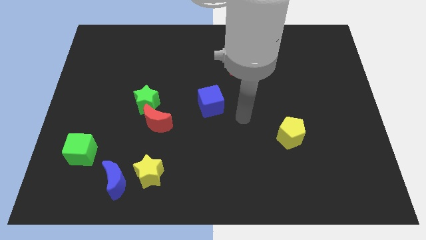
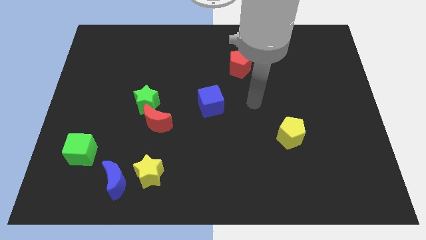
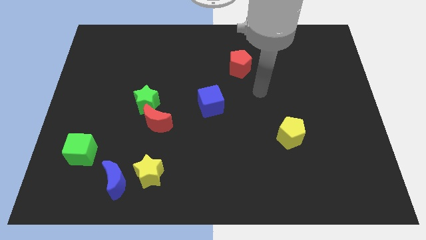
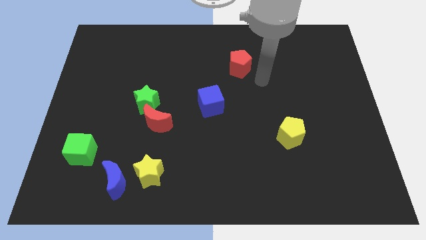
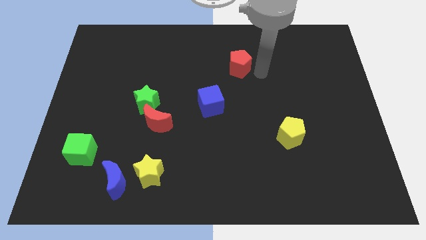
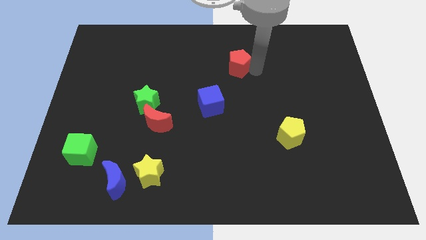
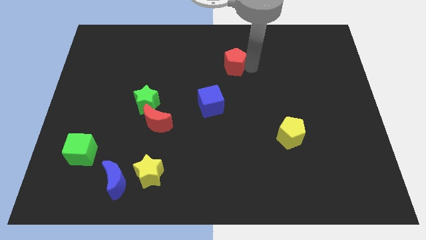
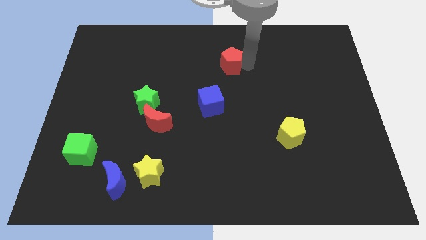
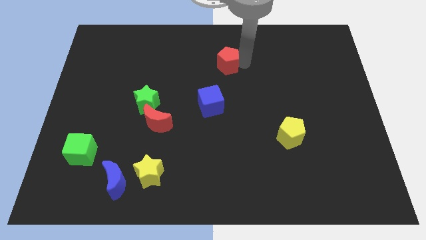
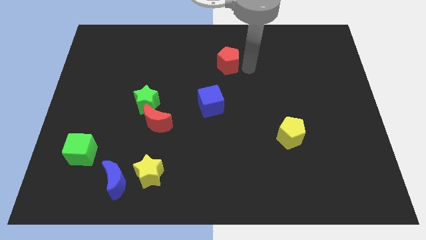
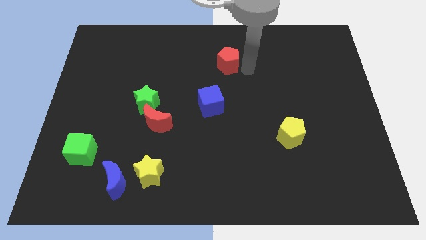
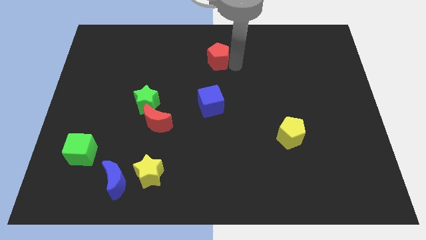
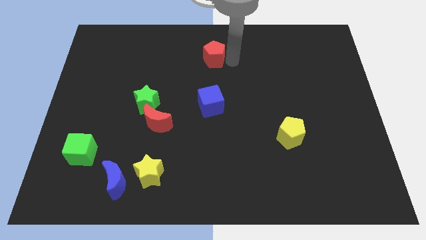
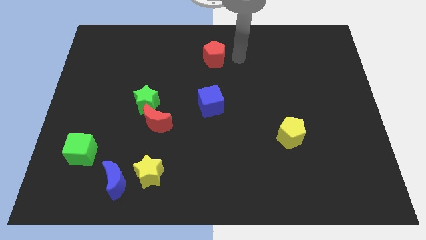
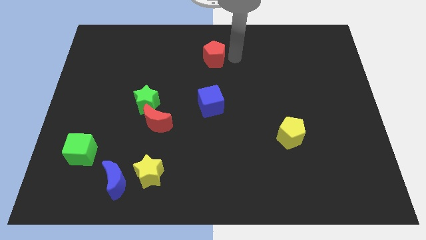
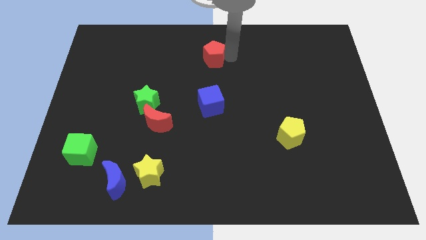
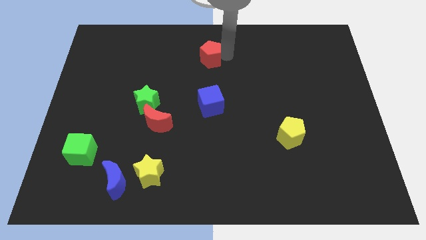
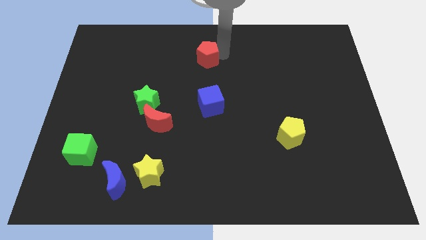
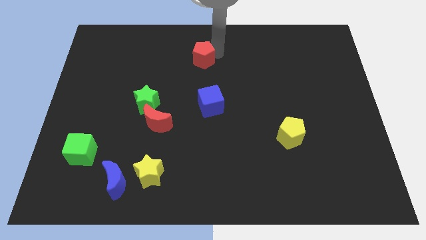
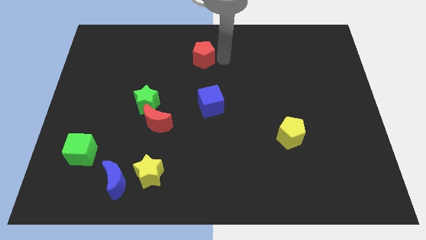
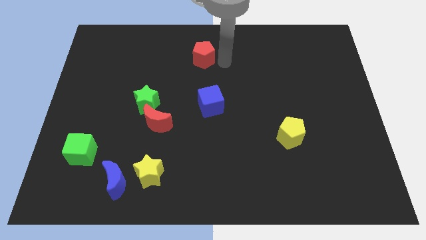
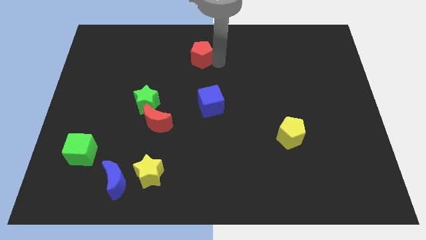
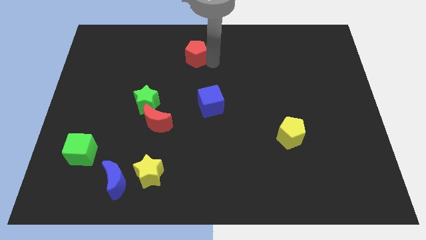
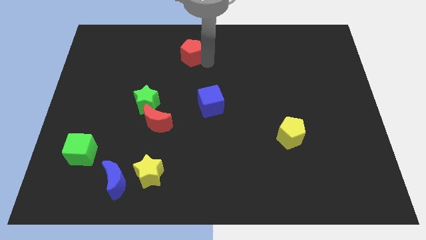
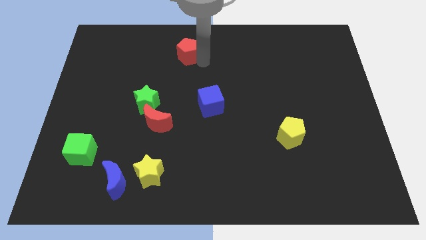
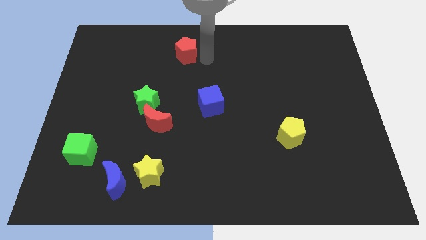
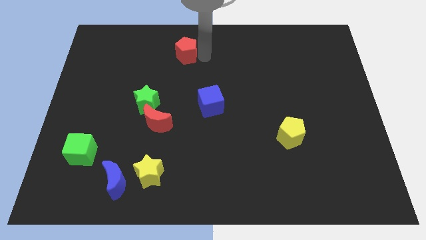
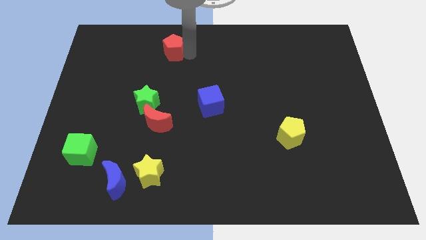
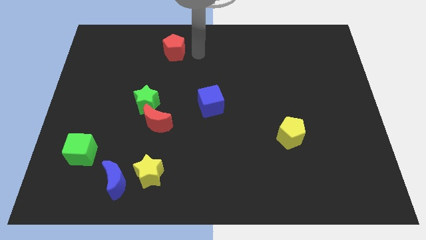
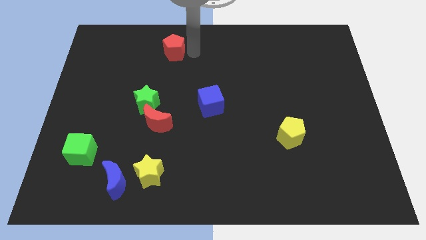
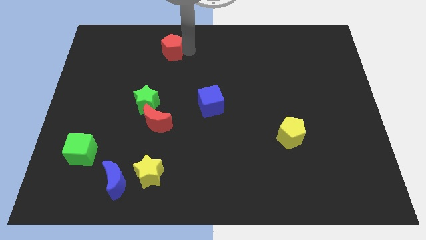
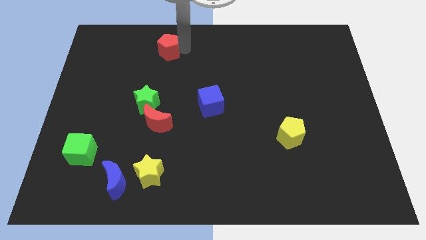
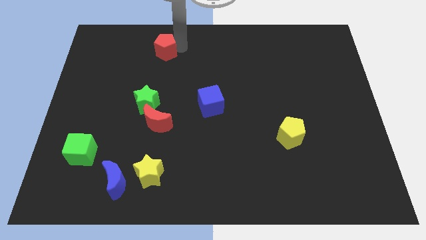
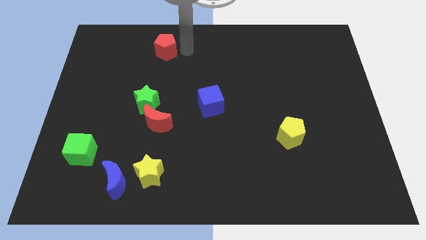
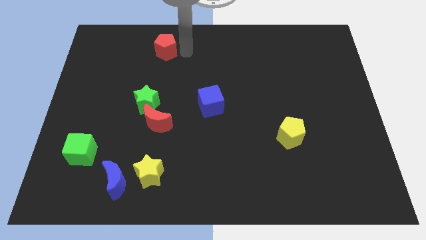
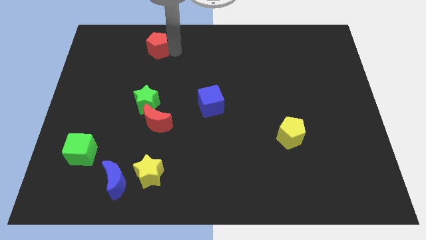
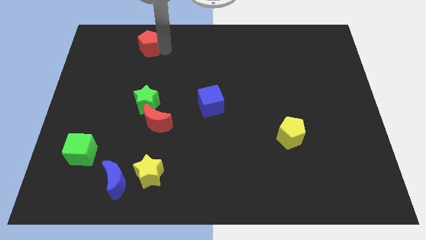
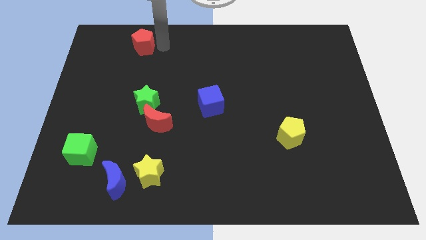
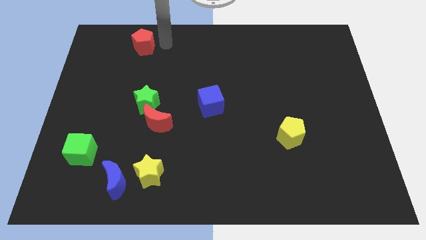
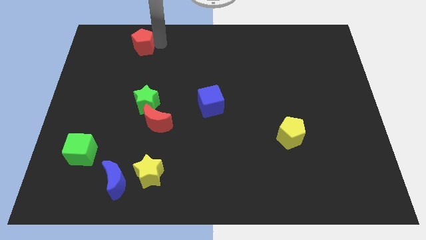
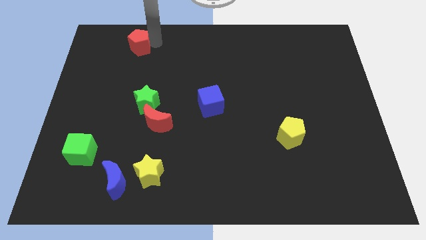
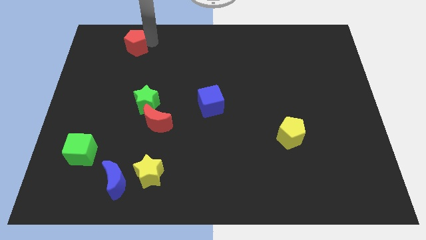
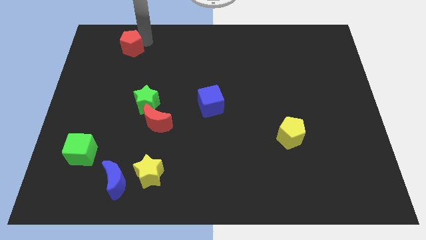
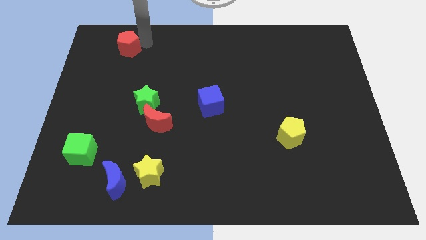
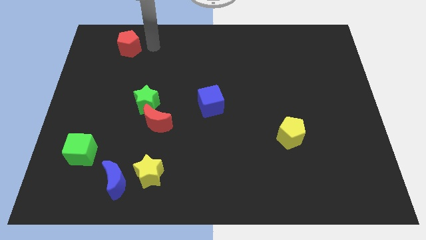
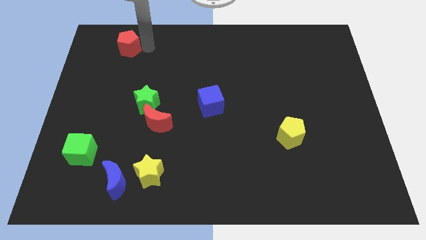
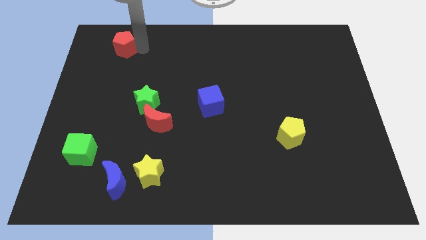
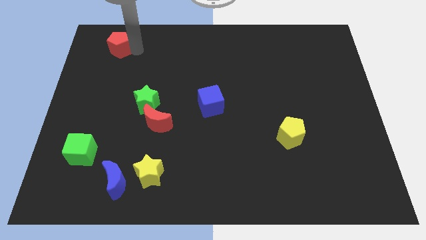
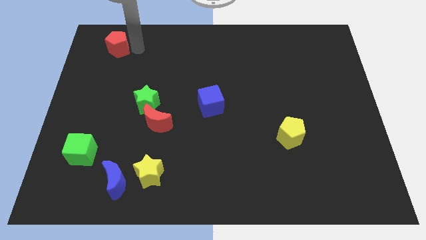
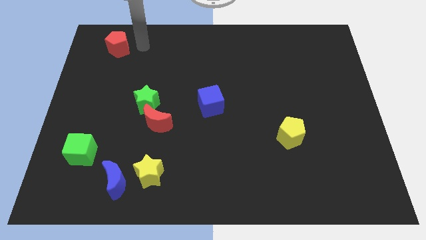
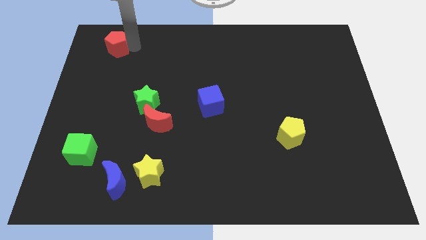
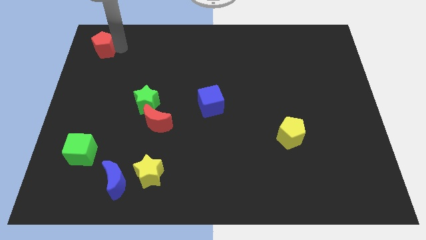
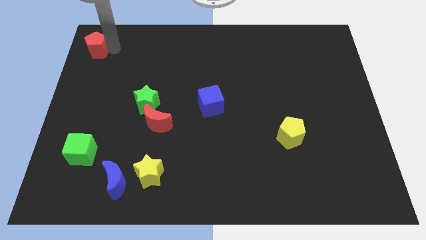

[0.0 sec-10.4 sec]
push the red pentagon to the top left corner
